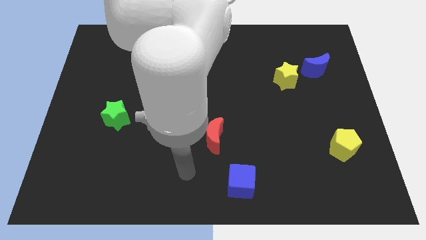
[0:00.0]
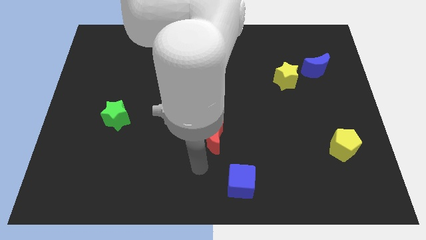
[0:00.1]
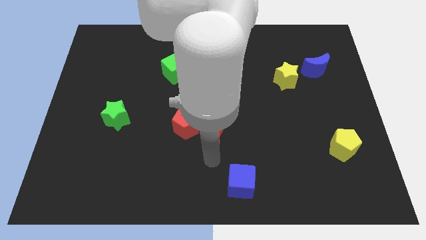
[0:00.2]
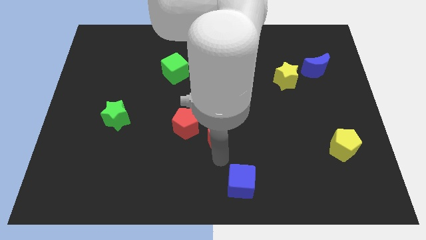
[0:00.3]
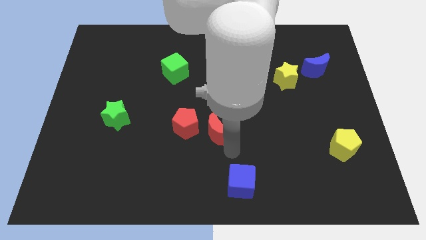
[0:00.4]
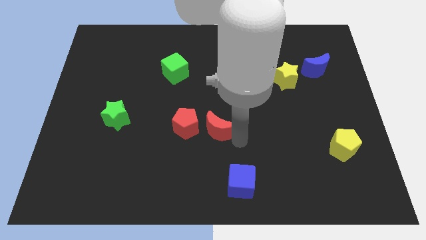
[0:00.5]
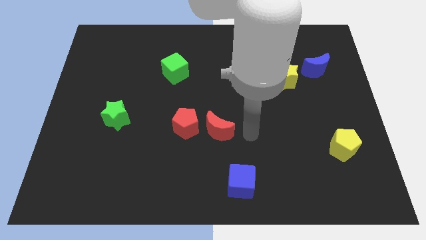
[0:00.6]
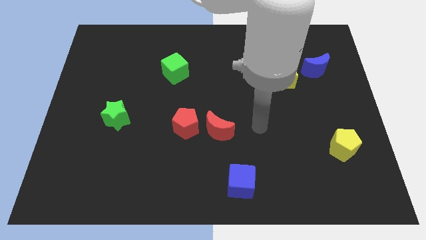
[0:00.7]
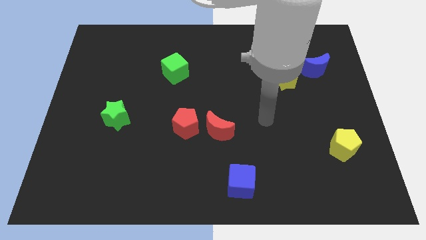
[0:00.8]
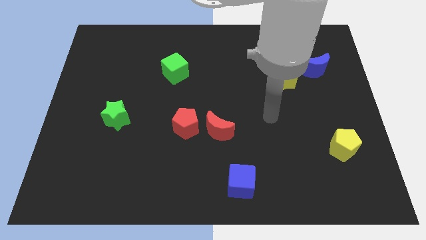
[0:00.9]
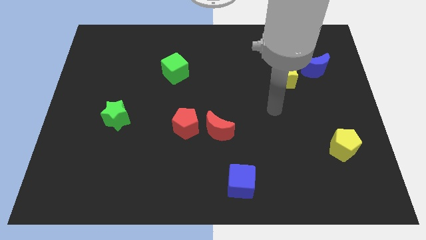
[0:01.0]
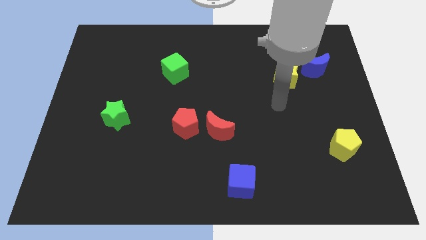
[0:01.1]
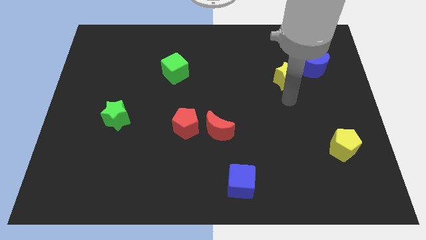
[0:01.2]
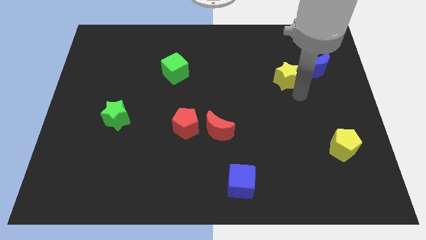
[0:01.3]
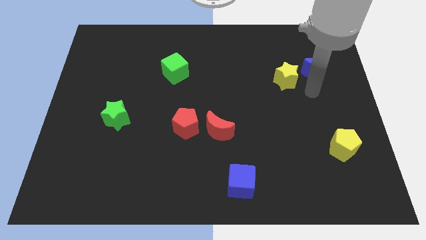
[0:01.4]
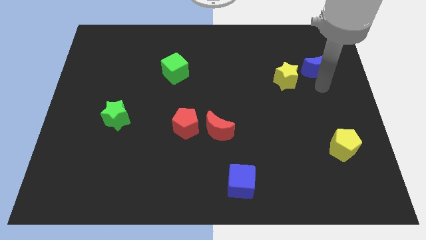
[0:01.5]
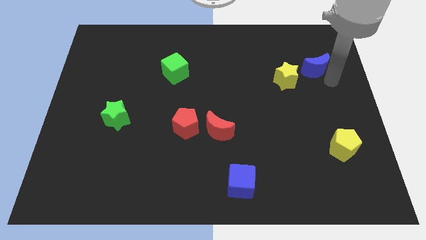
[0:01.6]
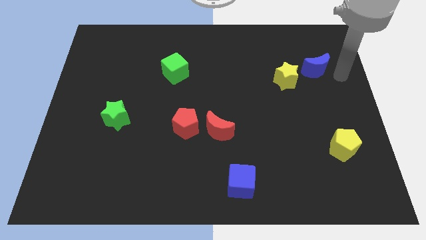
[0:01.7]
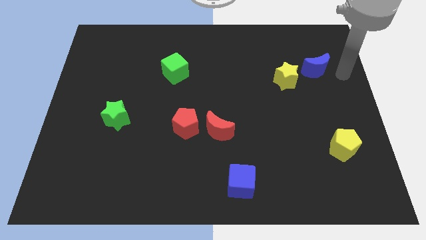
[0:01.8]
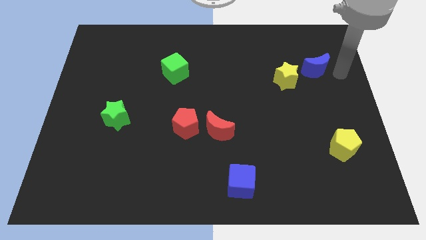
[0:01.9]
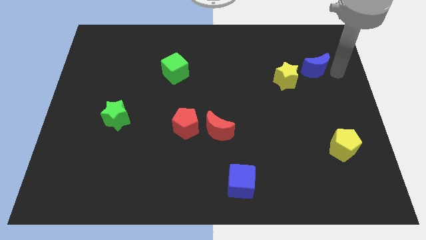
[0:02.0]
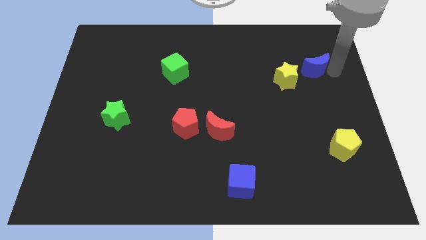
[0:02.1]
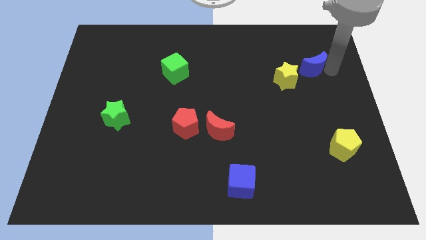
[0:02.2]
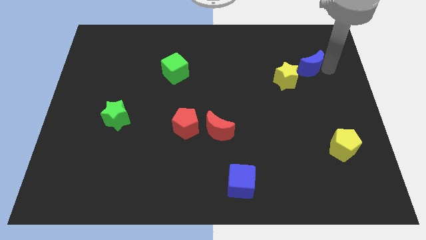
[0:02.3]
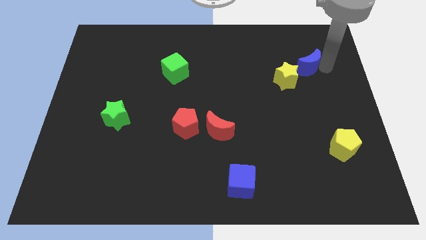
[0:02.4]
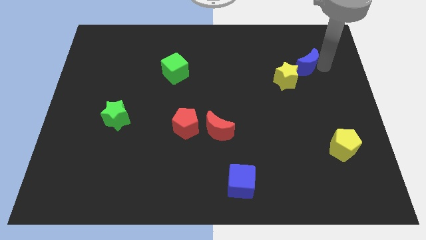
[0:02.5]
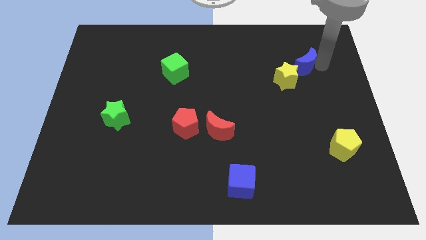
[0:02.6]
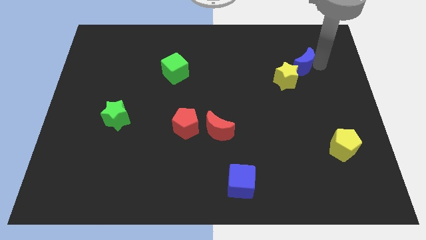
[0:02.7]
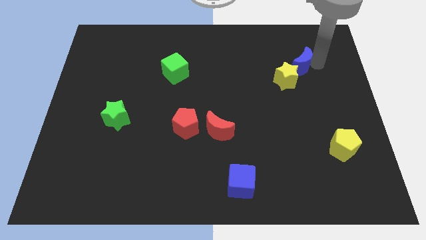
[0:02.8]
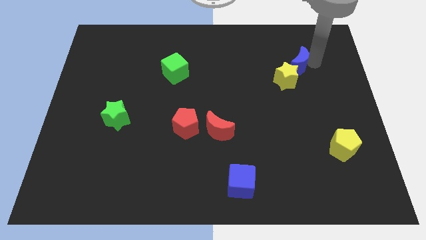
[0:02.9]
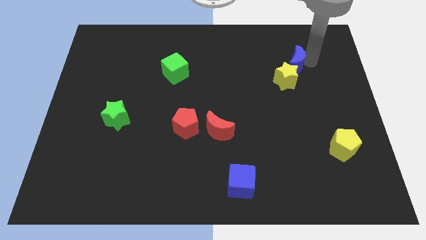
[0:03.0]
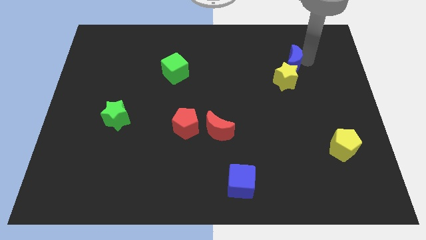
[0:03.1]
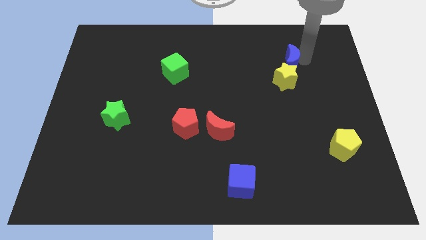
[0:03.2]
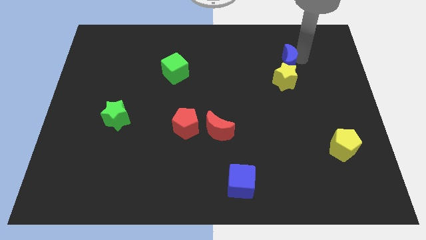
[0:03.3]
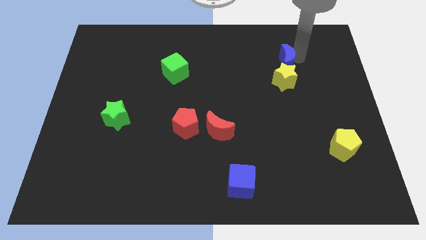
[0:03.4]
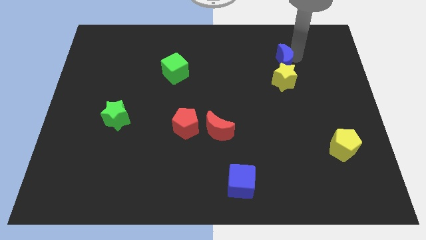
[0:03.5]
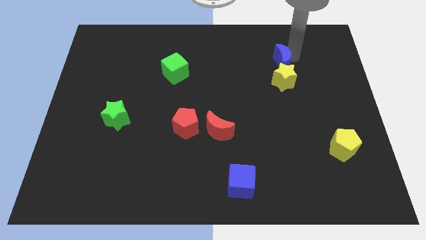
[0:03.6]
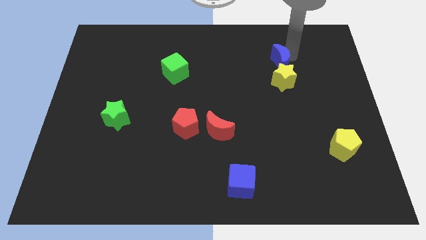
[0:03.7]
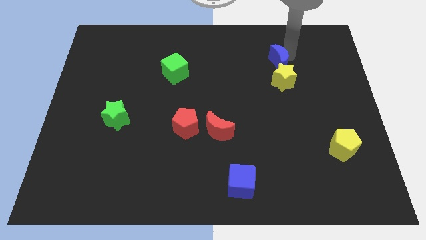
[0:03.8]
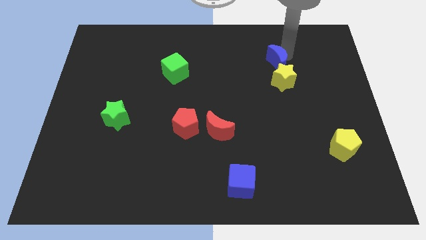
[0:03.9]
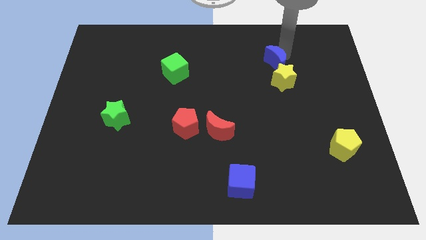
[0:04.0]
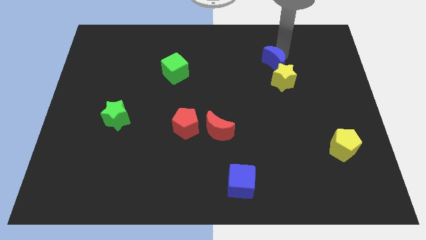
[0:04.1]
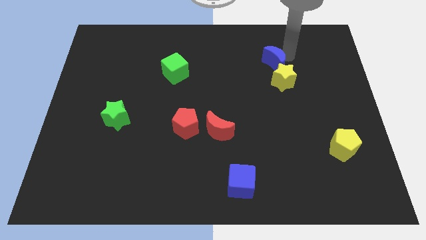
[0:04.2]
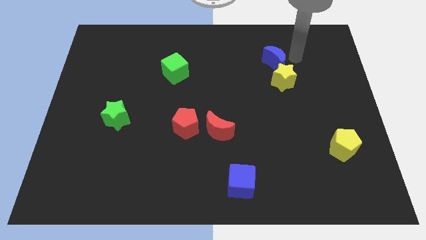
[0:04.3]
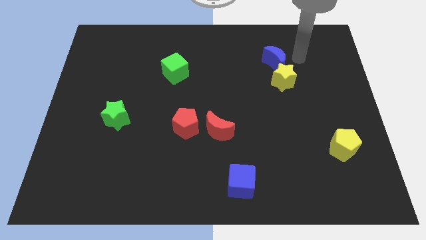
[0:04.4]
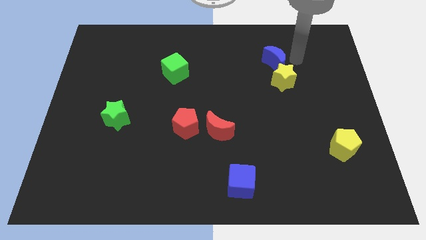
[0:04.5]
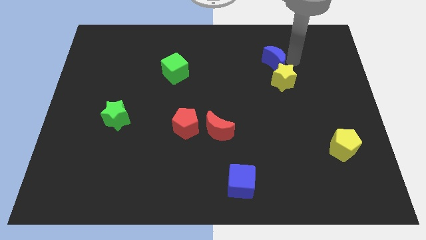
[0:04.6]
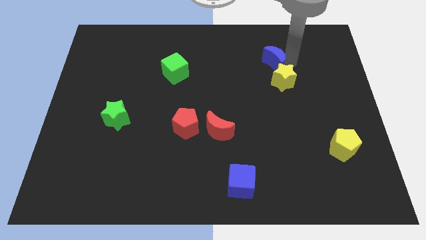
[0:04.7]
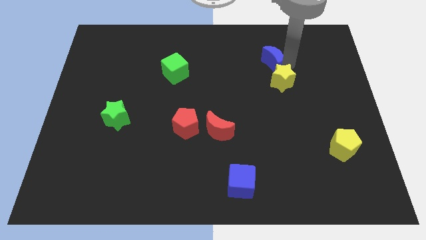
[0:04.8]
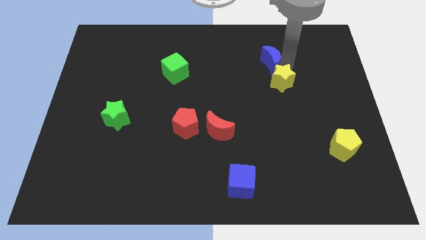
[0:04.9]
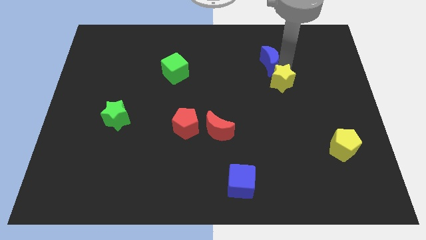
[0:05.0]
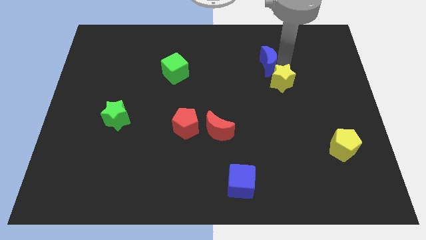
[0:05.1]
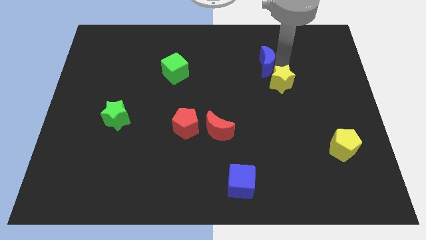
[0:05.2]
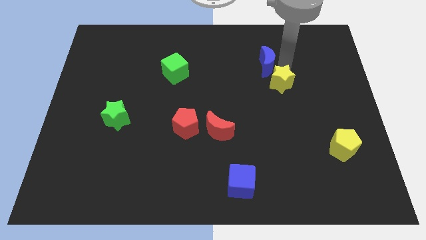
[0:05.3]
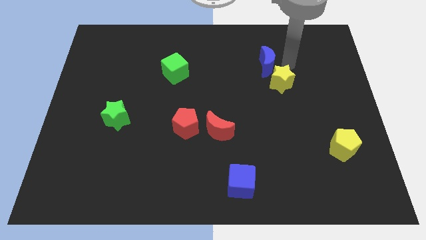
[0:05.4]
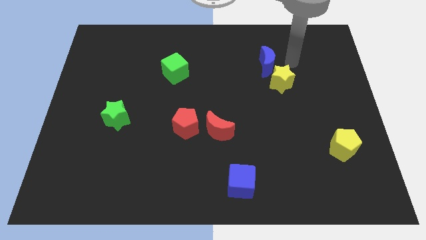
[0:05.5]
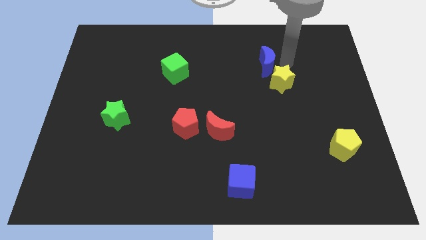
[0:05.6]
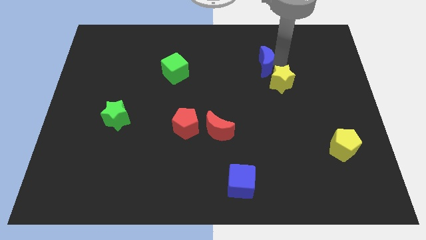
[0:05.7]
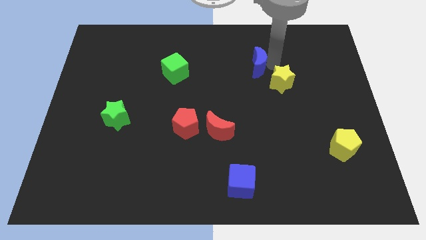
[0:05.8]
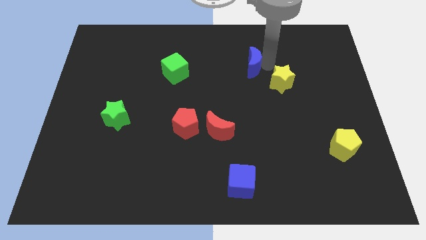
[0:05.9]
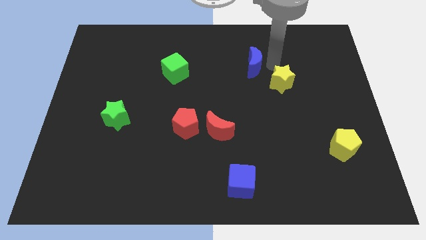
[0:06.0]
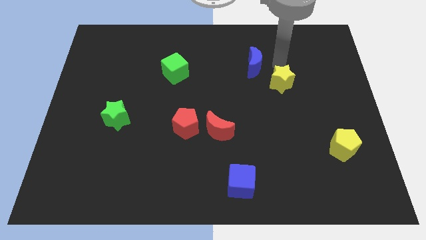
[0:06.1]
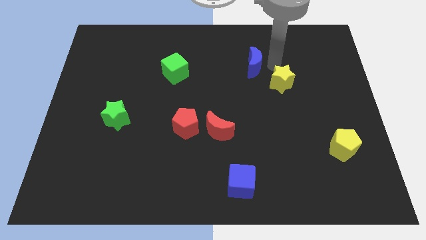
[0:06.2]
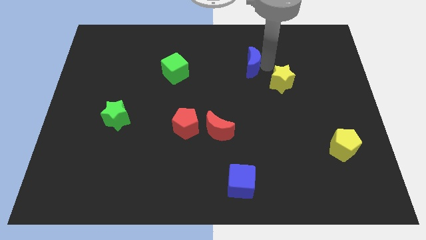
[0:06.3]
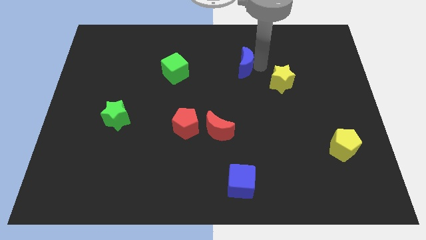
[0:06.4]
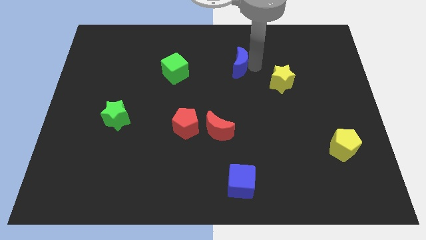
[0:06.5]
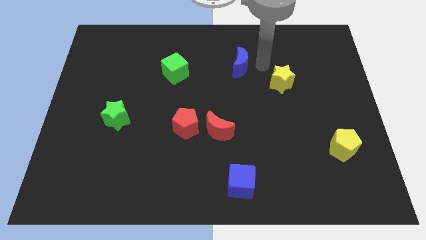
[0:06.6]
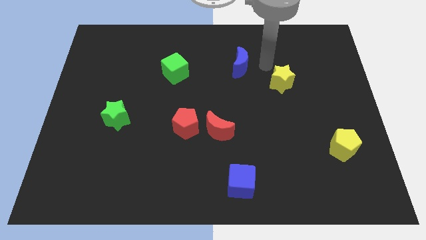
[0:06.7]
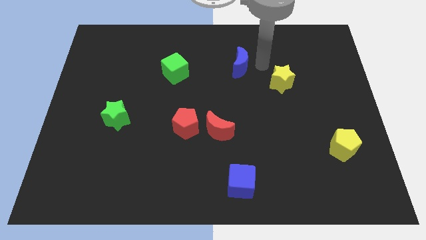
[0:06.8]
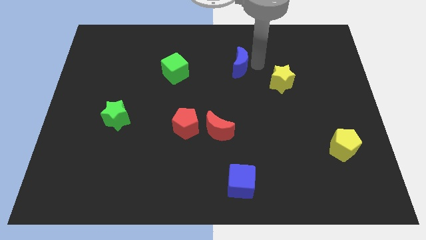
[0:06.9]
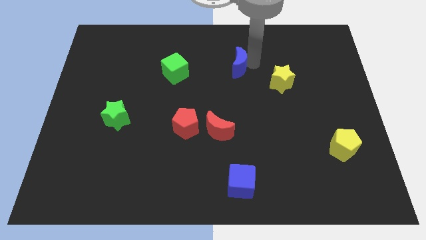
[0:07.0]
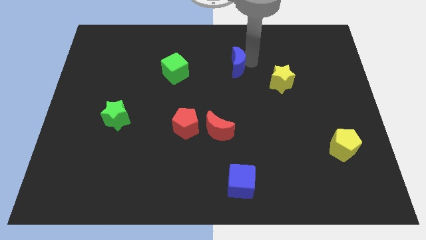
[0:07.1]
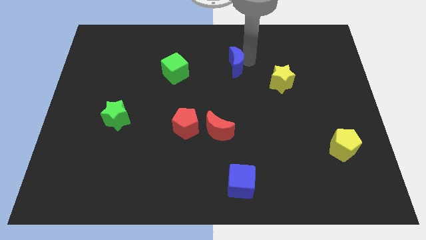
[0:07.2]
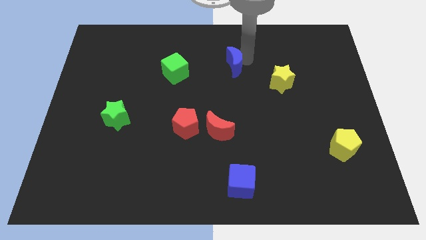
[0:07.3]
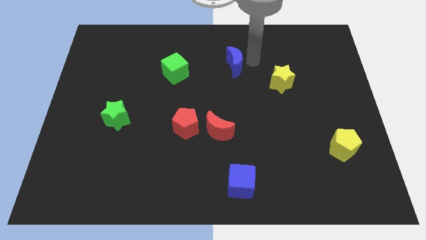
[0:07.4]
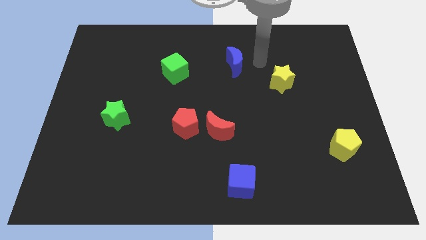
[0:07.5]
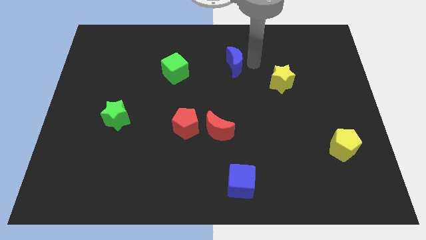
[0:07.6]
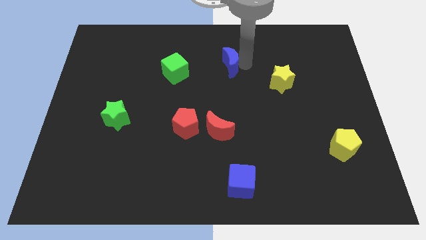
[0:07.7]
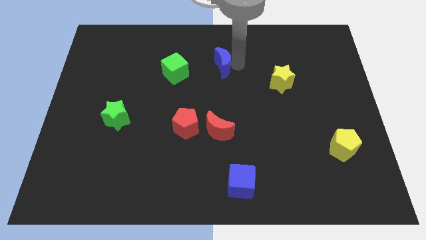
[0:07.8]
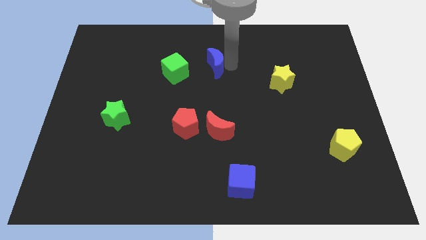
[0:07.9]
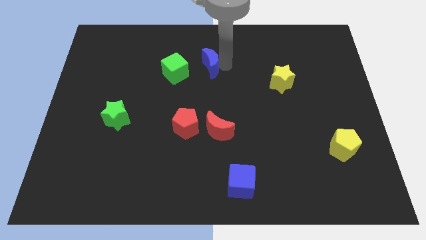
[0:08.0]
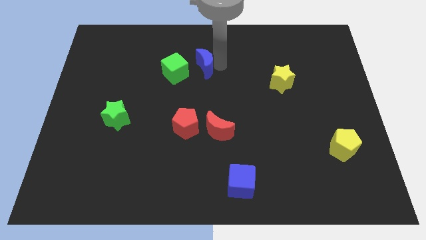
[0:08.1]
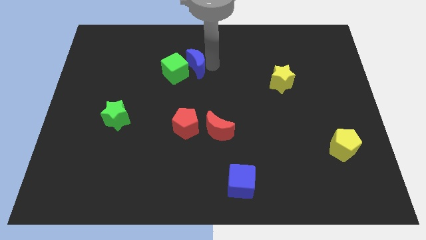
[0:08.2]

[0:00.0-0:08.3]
put the blue moon close to the green cube
